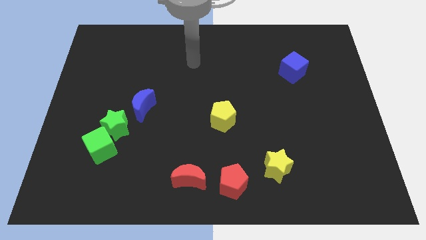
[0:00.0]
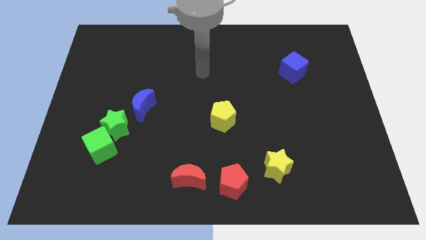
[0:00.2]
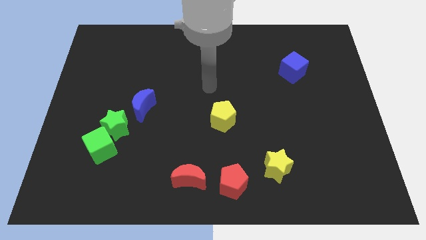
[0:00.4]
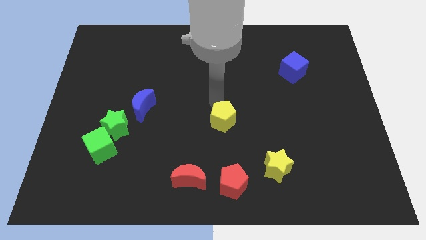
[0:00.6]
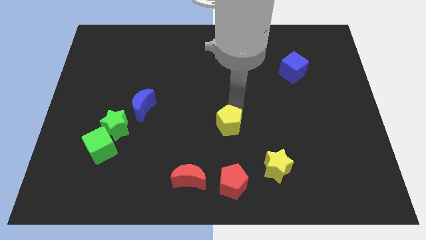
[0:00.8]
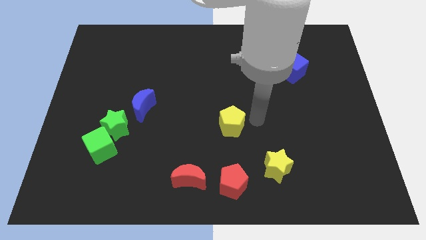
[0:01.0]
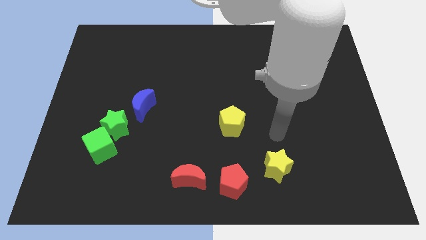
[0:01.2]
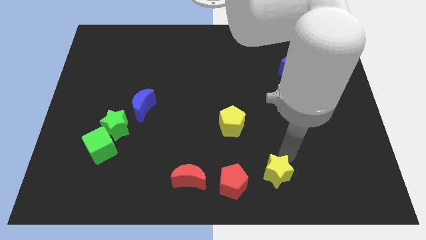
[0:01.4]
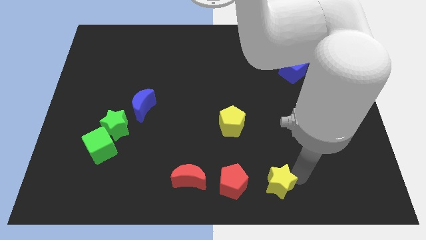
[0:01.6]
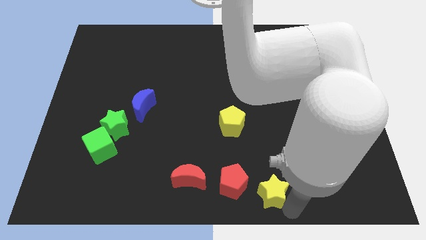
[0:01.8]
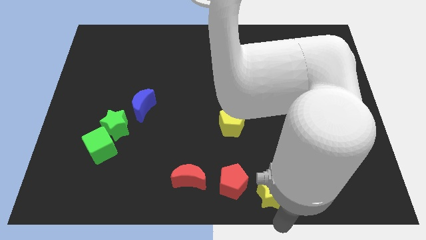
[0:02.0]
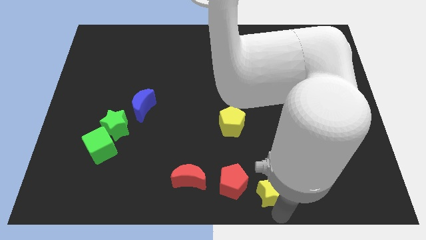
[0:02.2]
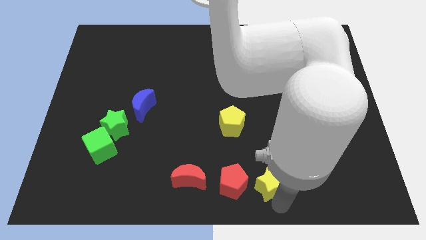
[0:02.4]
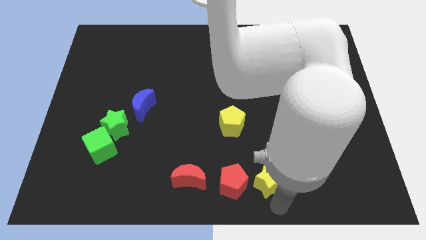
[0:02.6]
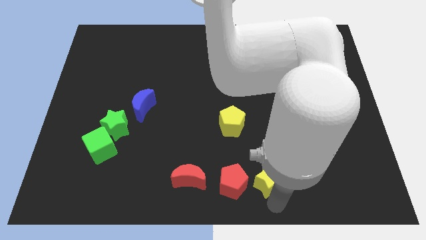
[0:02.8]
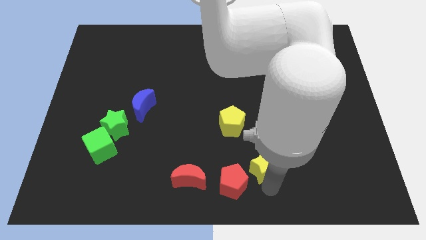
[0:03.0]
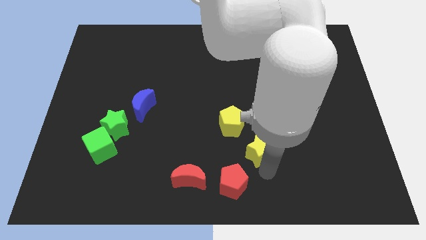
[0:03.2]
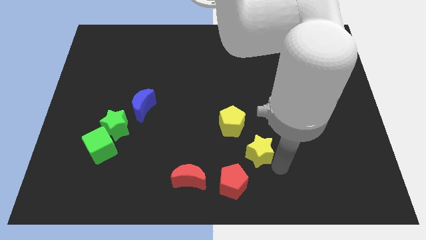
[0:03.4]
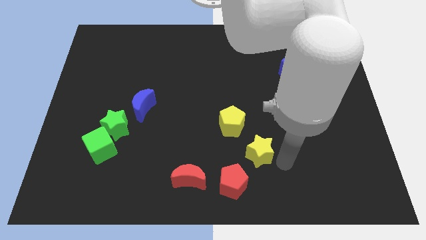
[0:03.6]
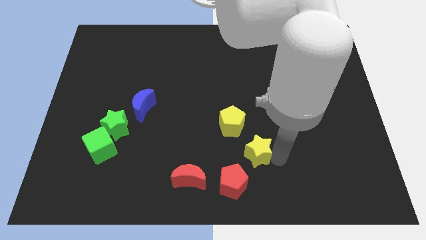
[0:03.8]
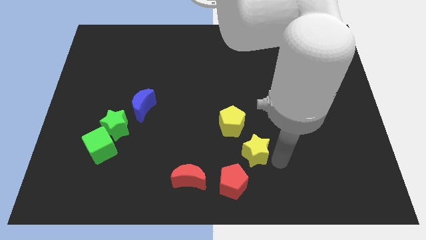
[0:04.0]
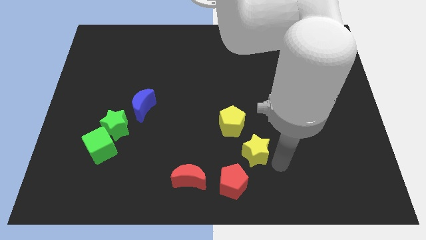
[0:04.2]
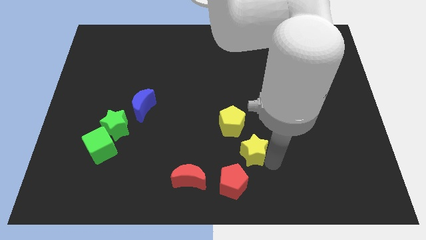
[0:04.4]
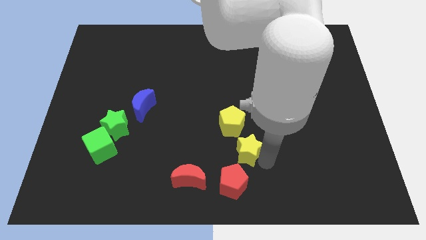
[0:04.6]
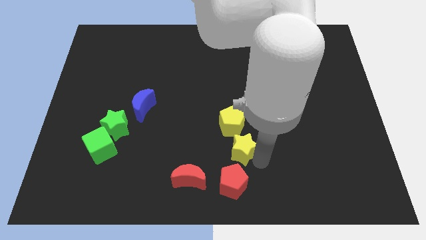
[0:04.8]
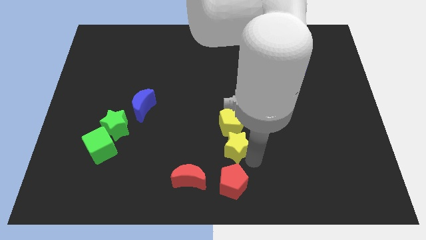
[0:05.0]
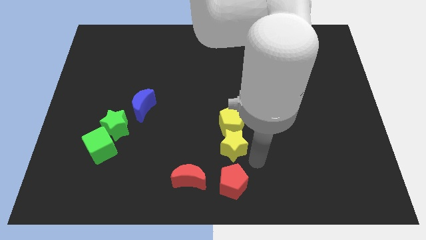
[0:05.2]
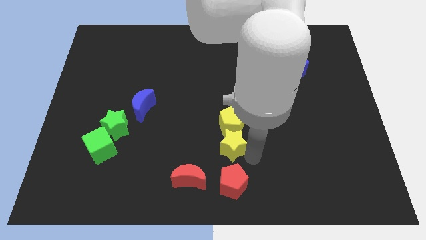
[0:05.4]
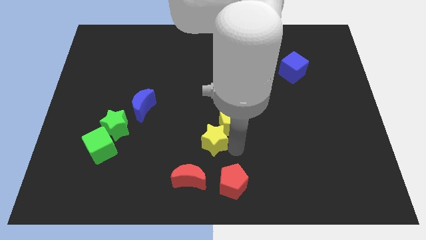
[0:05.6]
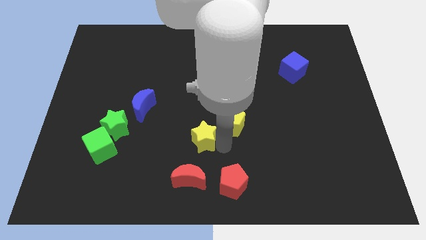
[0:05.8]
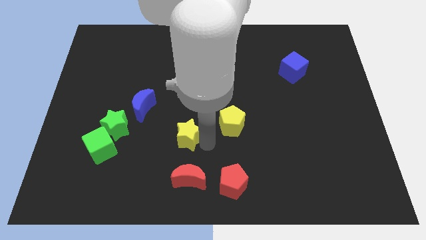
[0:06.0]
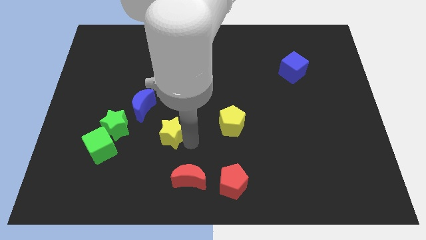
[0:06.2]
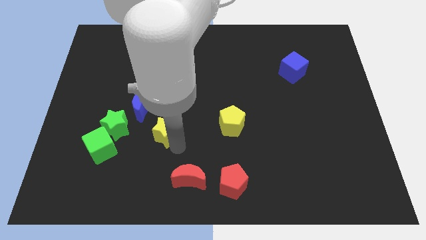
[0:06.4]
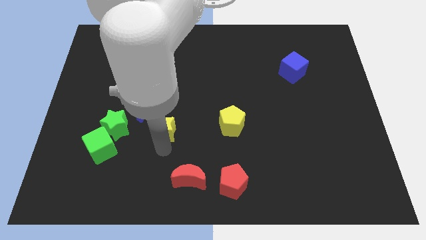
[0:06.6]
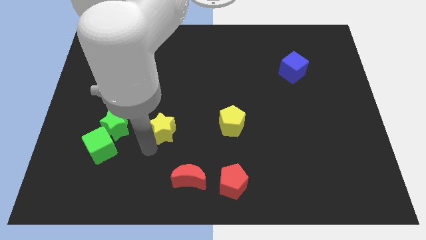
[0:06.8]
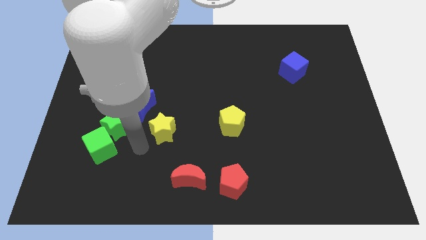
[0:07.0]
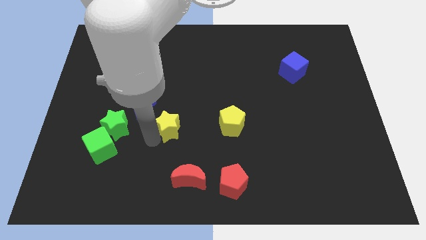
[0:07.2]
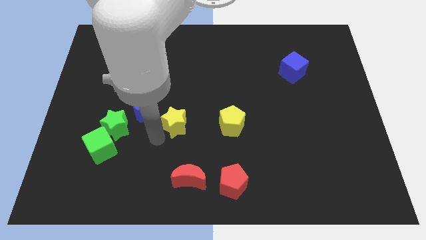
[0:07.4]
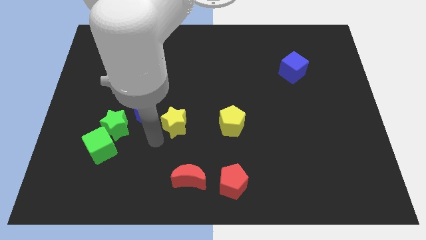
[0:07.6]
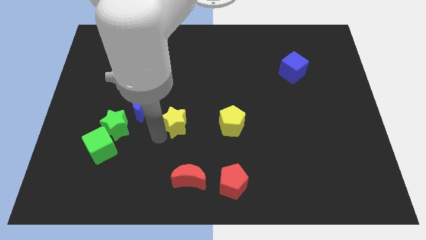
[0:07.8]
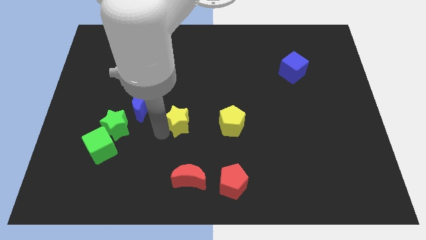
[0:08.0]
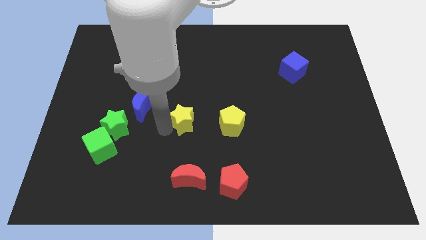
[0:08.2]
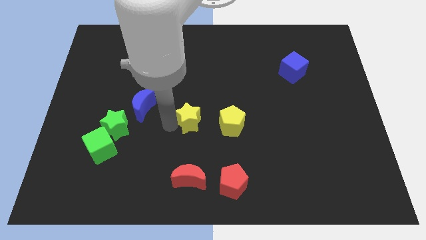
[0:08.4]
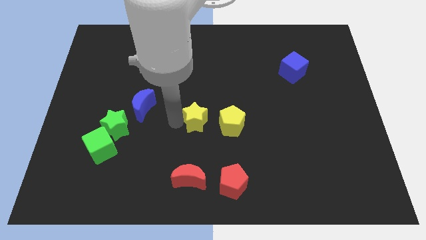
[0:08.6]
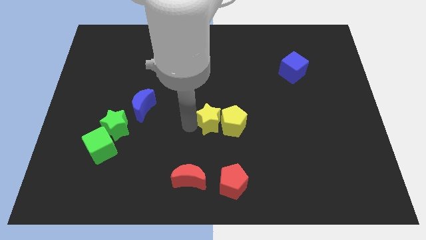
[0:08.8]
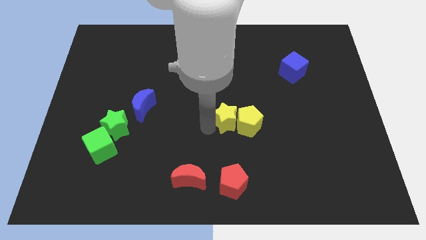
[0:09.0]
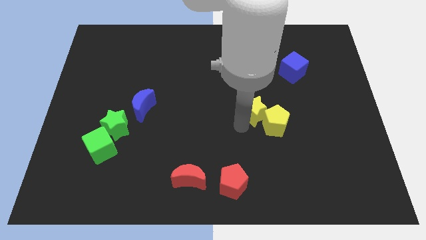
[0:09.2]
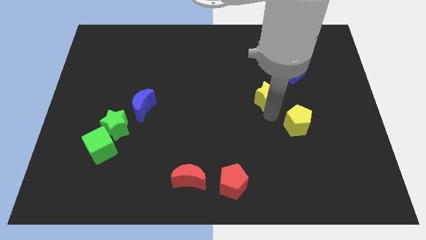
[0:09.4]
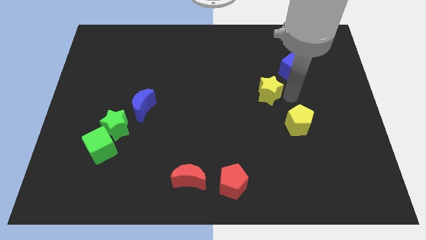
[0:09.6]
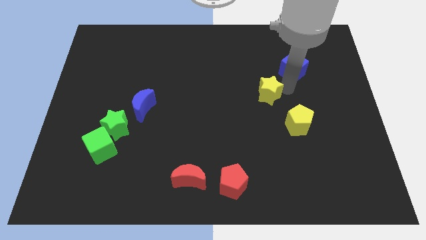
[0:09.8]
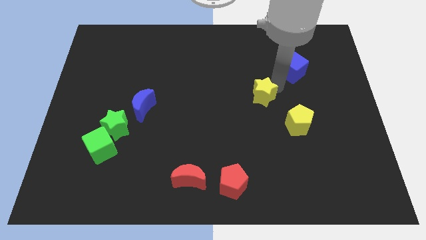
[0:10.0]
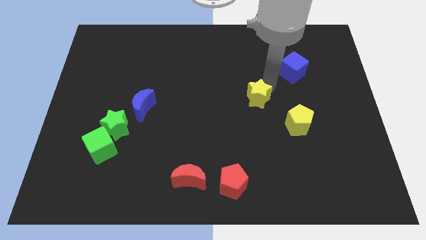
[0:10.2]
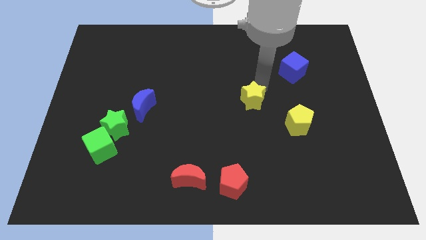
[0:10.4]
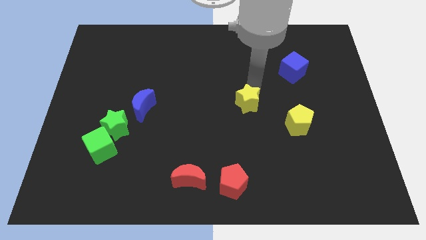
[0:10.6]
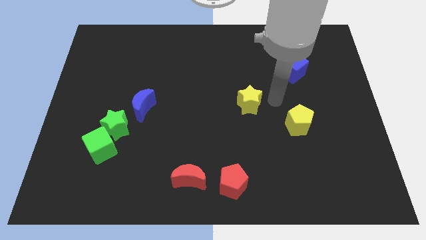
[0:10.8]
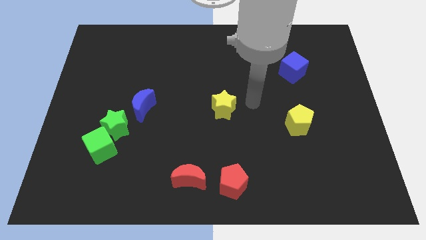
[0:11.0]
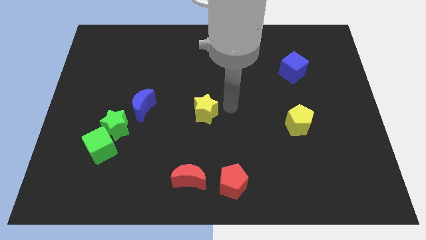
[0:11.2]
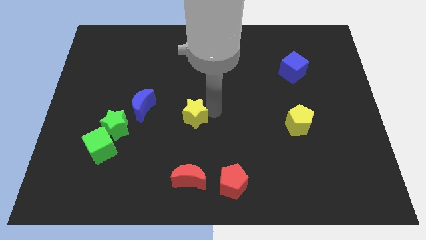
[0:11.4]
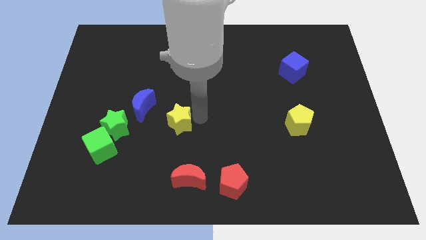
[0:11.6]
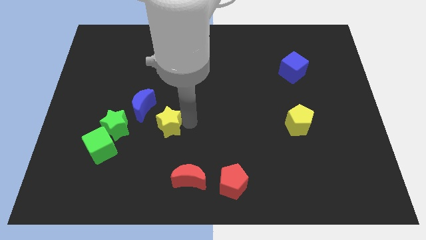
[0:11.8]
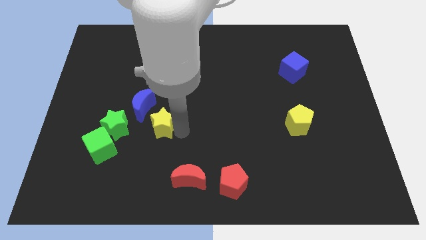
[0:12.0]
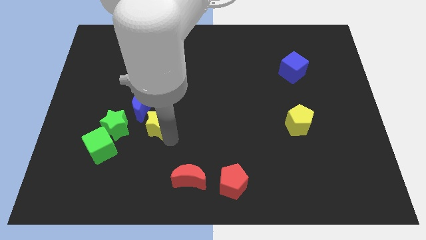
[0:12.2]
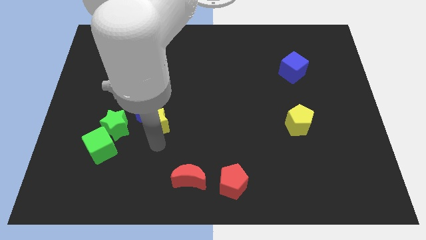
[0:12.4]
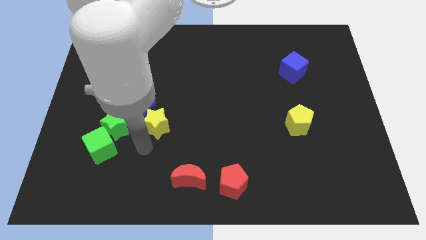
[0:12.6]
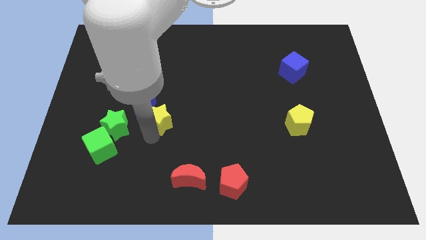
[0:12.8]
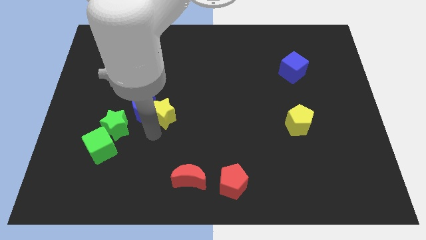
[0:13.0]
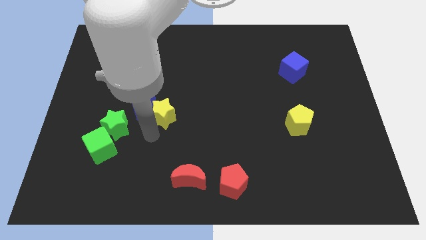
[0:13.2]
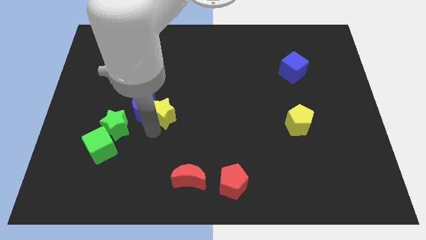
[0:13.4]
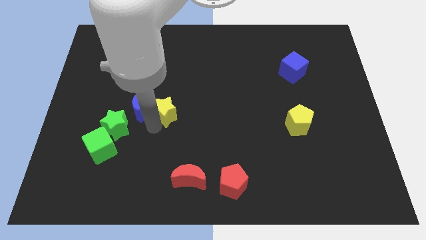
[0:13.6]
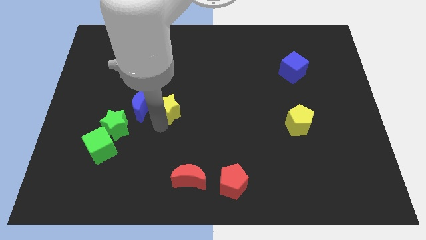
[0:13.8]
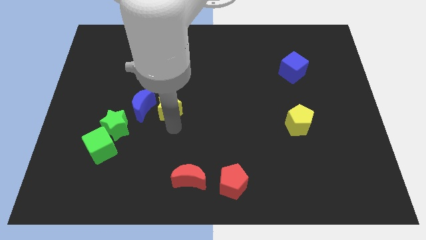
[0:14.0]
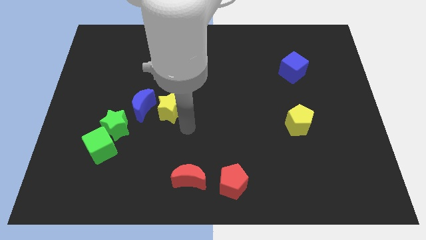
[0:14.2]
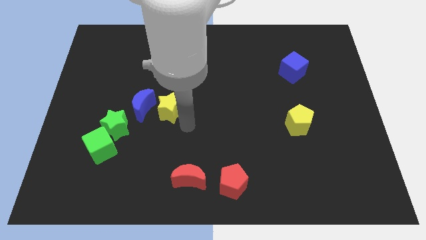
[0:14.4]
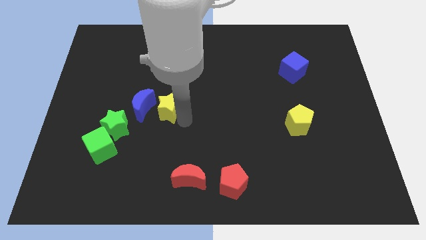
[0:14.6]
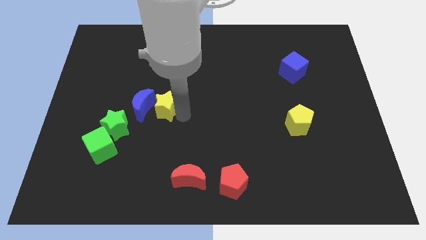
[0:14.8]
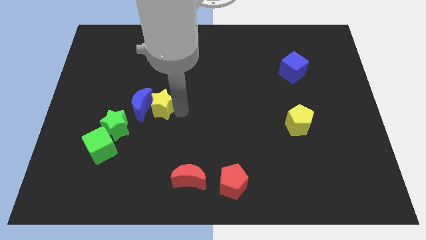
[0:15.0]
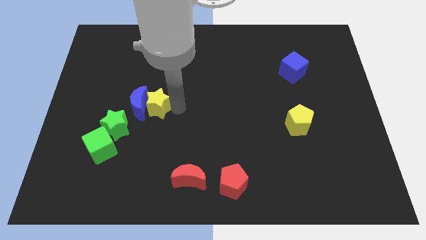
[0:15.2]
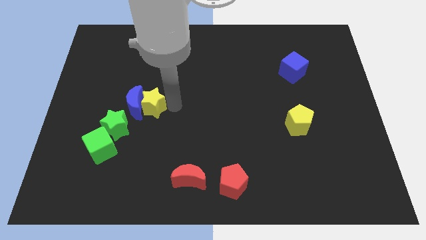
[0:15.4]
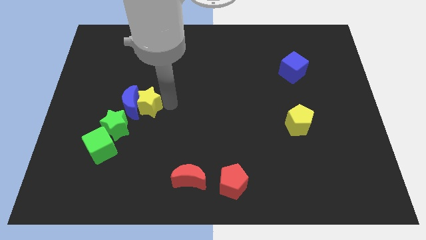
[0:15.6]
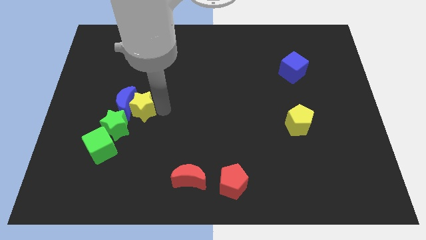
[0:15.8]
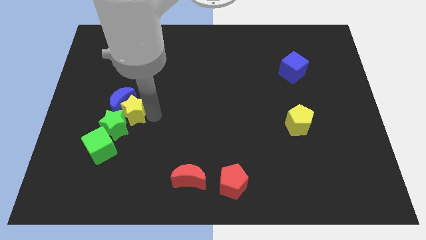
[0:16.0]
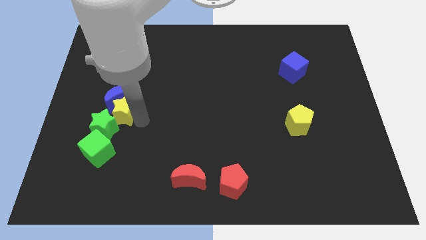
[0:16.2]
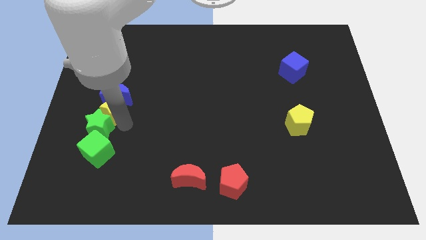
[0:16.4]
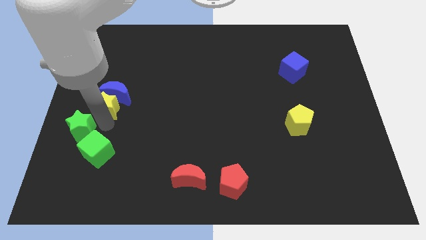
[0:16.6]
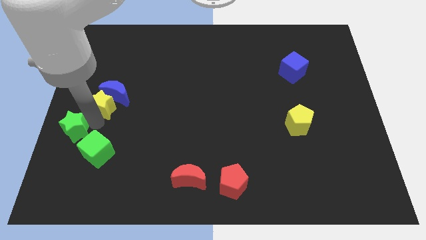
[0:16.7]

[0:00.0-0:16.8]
move the yellow star to the center left
